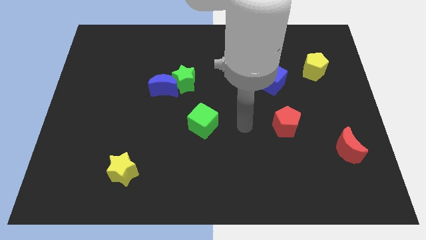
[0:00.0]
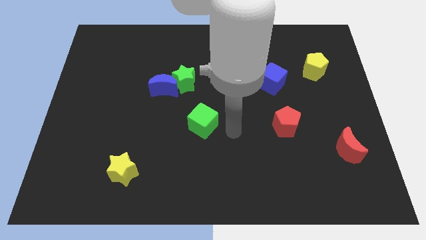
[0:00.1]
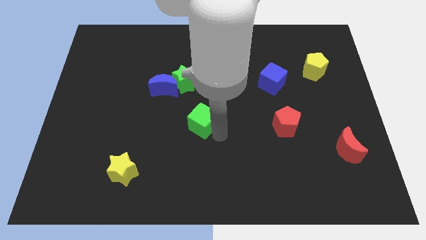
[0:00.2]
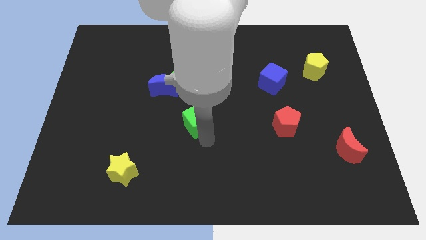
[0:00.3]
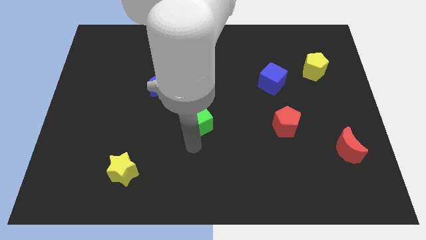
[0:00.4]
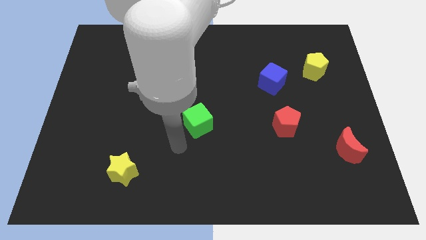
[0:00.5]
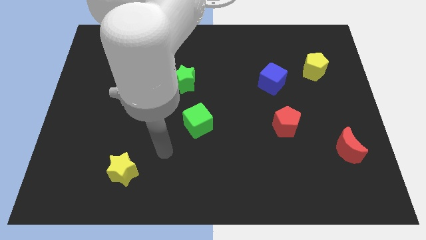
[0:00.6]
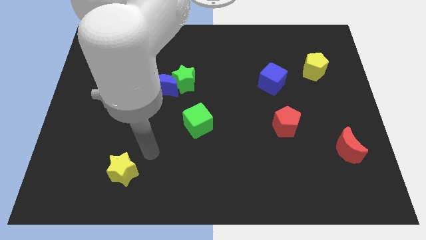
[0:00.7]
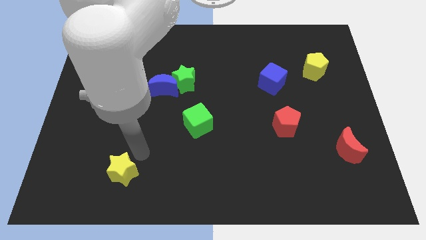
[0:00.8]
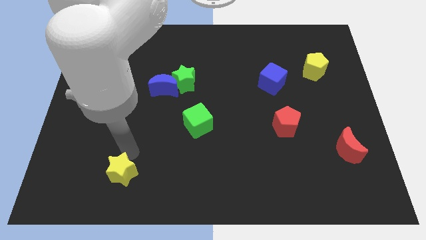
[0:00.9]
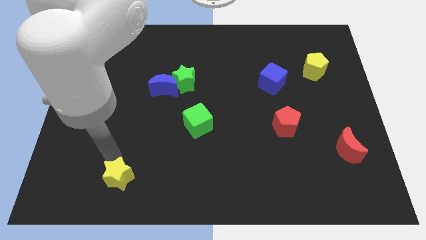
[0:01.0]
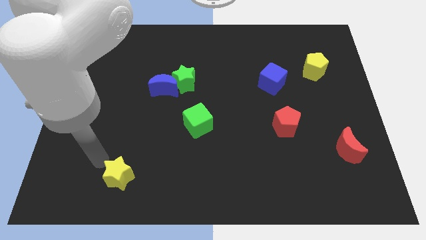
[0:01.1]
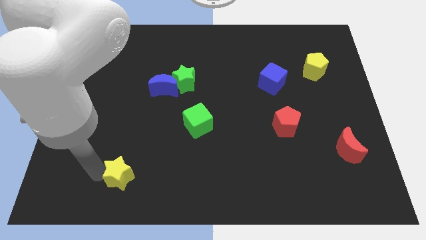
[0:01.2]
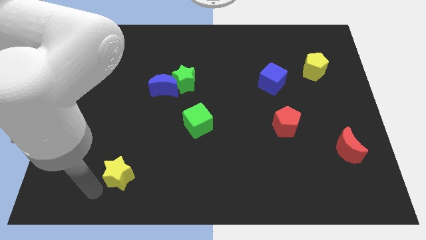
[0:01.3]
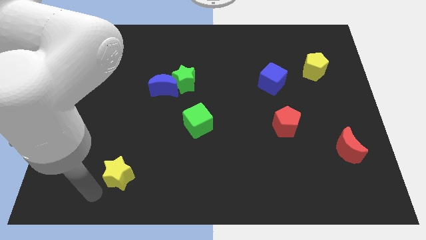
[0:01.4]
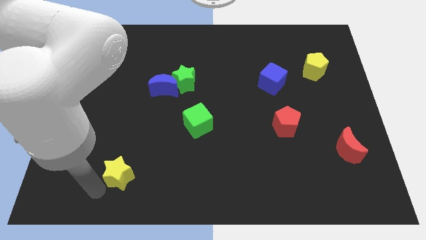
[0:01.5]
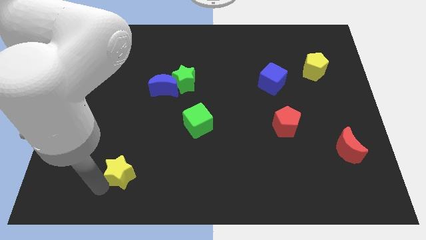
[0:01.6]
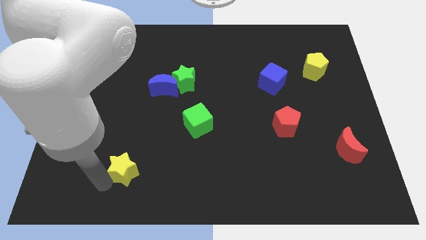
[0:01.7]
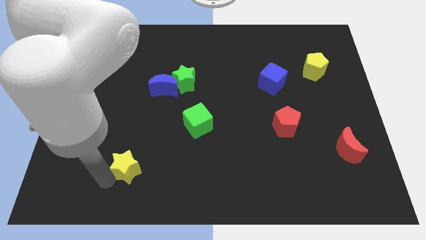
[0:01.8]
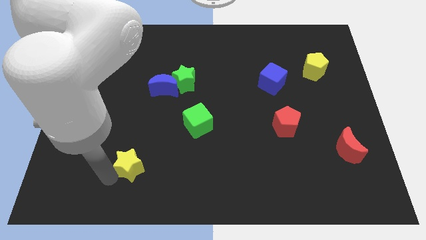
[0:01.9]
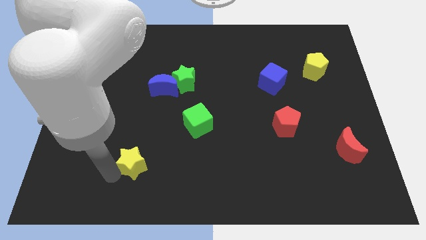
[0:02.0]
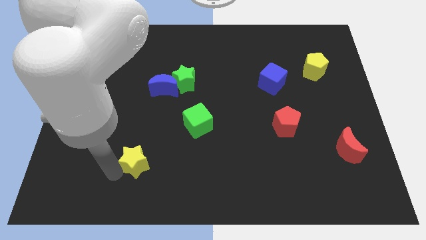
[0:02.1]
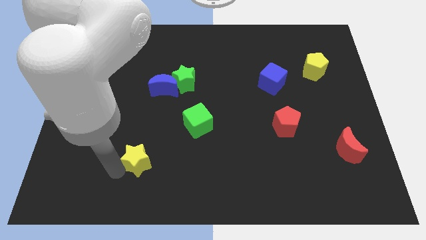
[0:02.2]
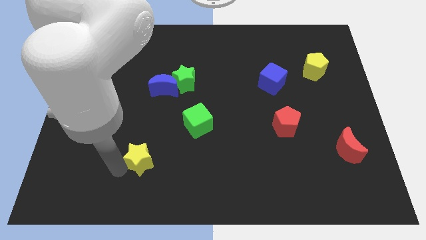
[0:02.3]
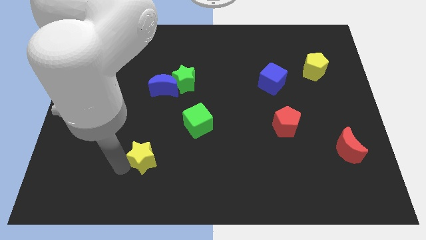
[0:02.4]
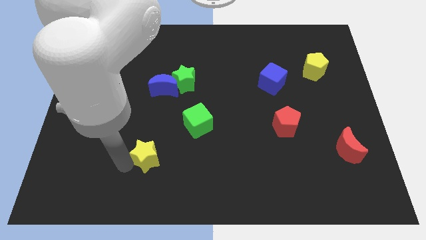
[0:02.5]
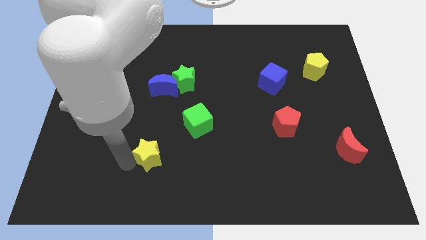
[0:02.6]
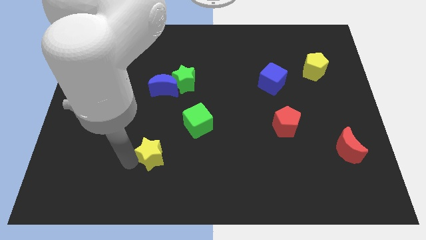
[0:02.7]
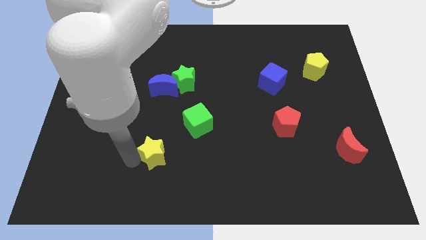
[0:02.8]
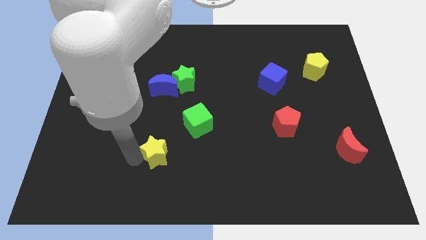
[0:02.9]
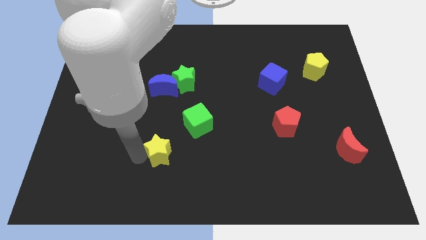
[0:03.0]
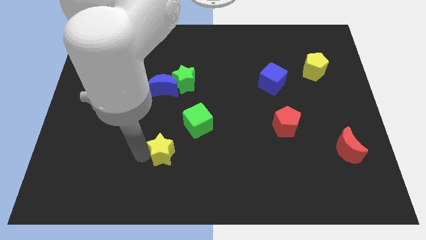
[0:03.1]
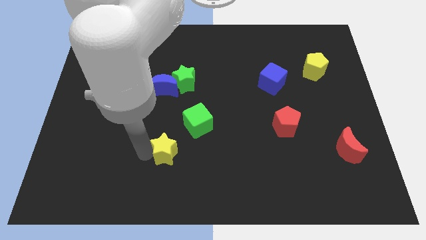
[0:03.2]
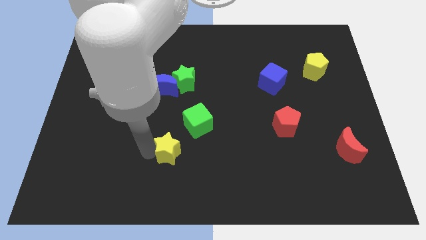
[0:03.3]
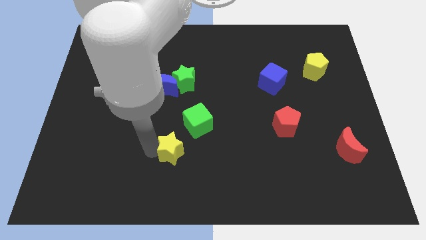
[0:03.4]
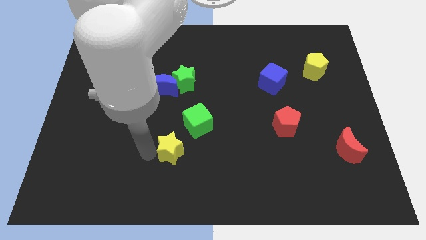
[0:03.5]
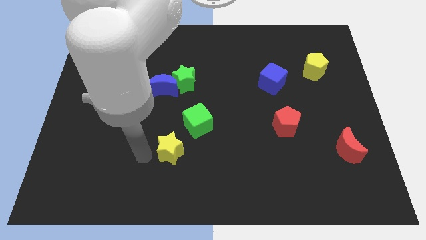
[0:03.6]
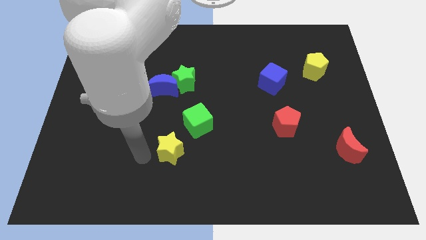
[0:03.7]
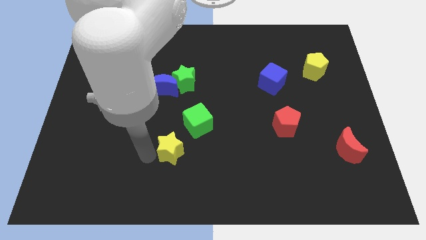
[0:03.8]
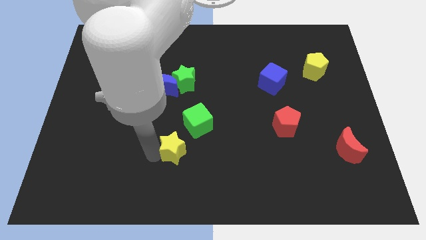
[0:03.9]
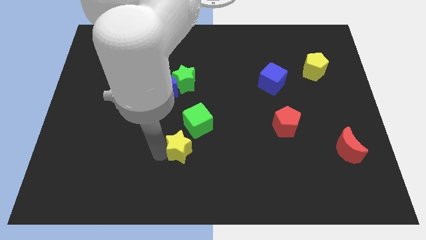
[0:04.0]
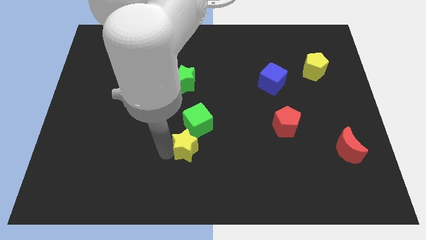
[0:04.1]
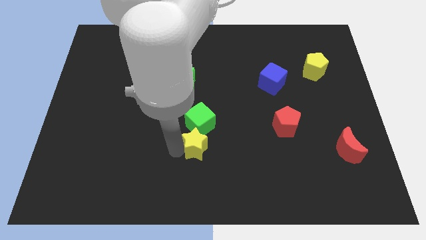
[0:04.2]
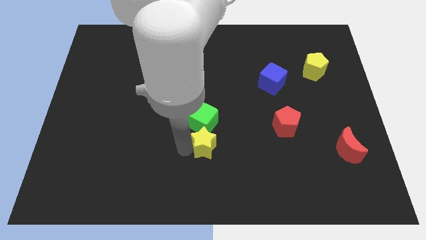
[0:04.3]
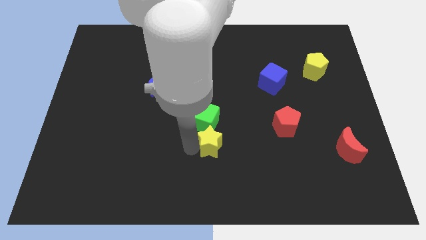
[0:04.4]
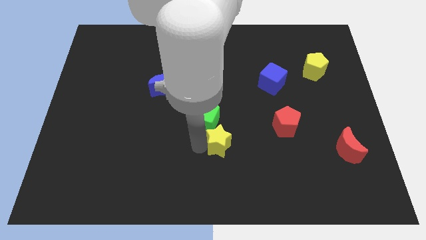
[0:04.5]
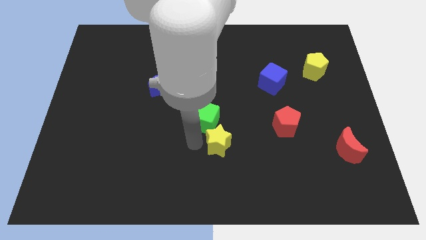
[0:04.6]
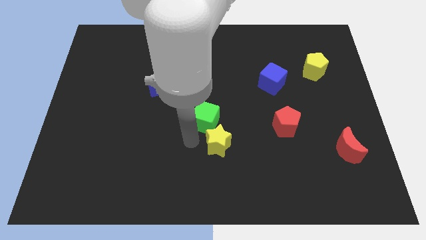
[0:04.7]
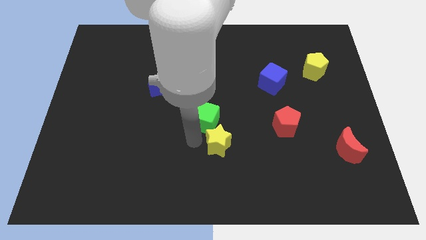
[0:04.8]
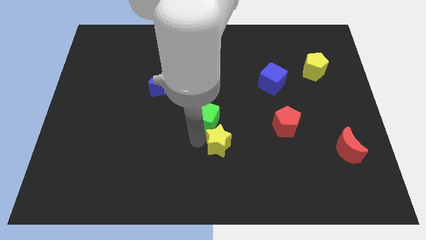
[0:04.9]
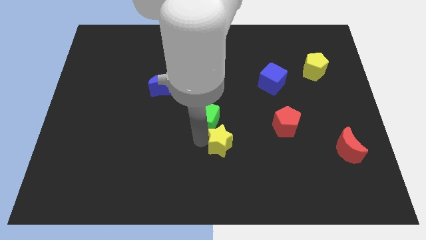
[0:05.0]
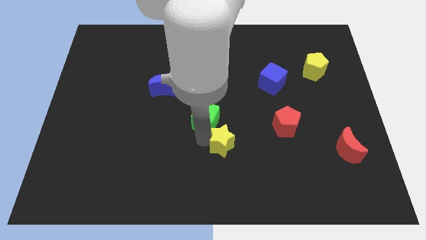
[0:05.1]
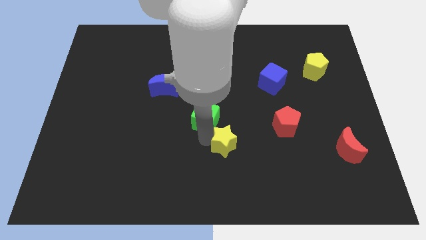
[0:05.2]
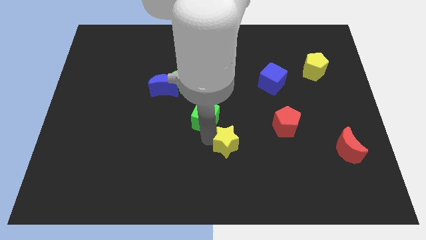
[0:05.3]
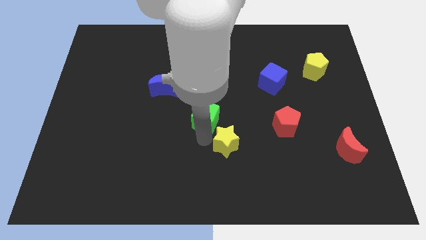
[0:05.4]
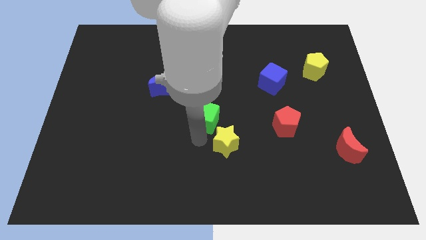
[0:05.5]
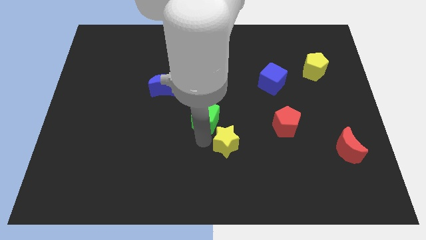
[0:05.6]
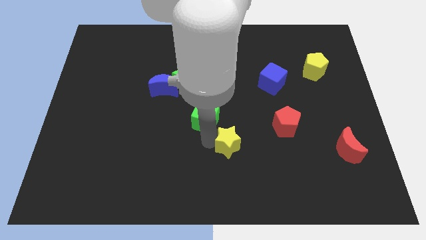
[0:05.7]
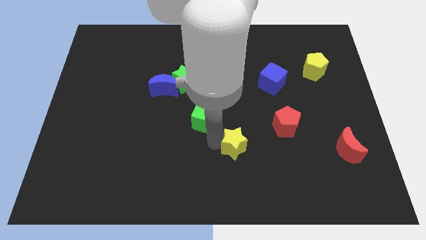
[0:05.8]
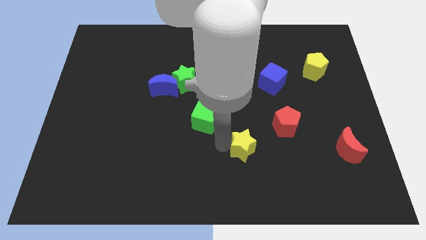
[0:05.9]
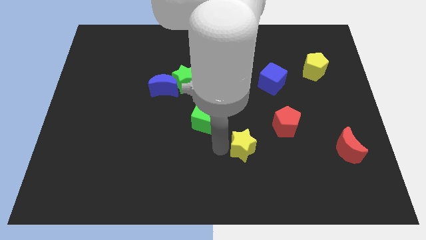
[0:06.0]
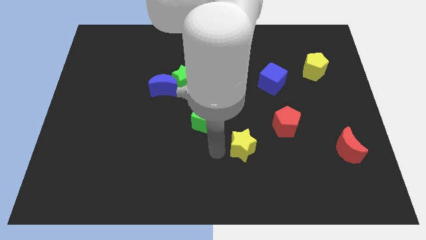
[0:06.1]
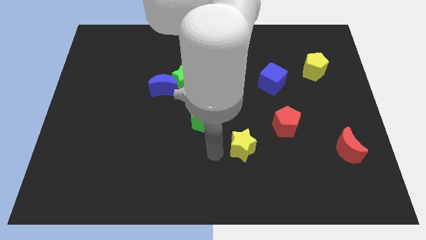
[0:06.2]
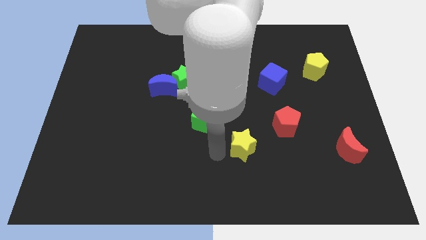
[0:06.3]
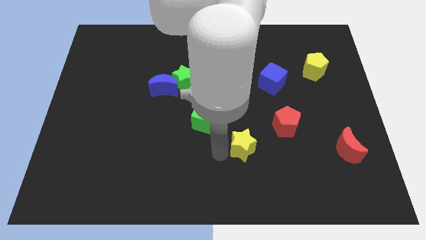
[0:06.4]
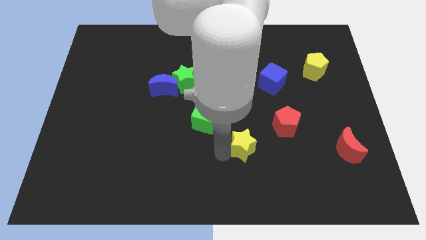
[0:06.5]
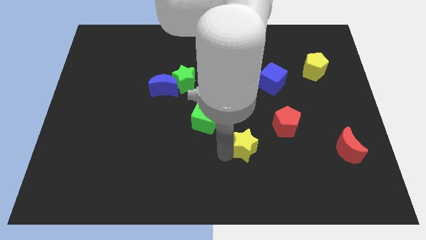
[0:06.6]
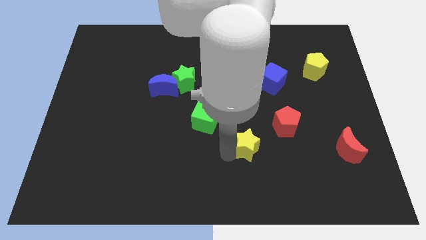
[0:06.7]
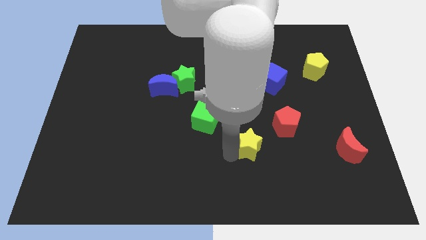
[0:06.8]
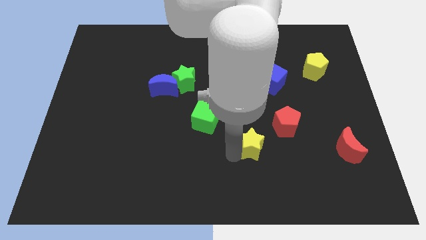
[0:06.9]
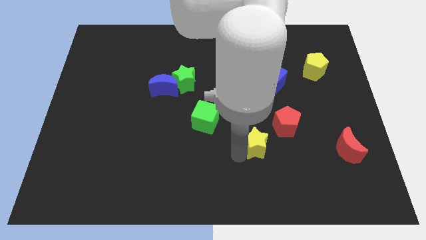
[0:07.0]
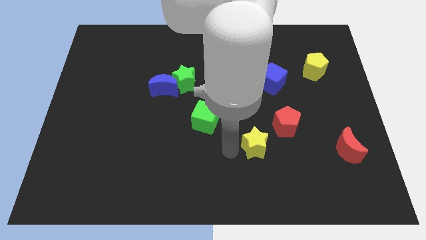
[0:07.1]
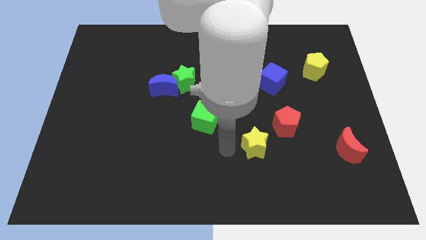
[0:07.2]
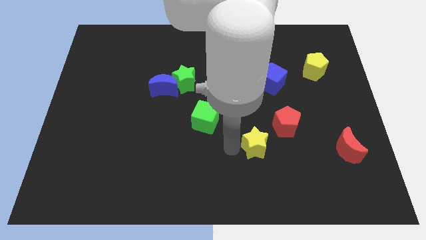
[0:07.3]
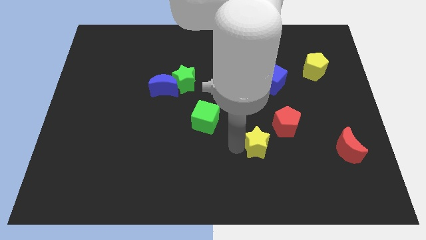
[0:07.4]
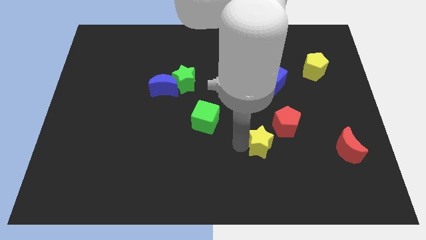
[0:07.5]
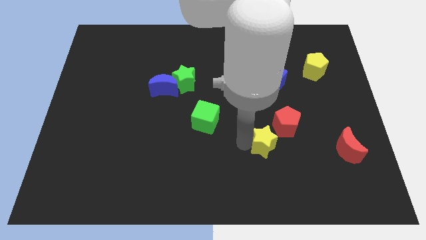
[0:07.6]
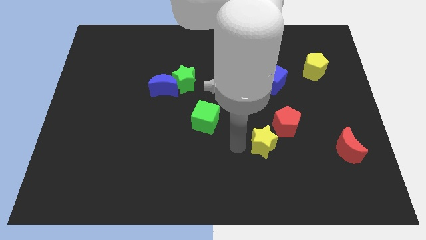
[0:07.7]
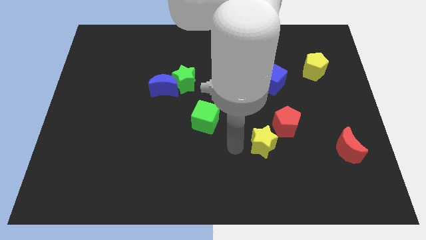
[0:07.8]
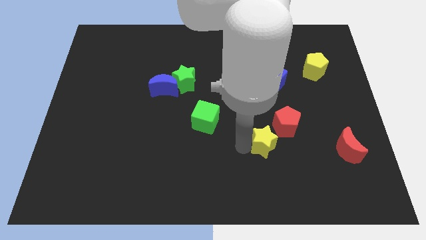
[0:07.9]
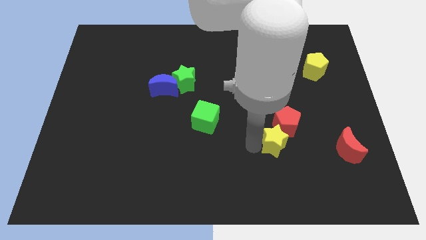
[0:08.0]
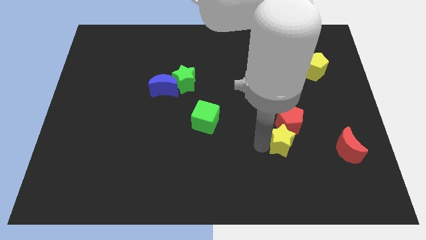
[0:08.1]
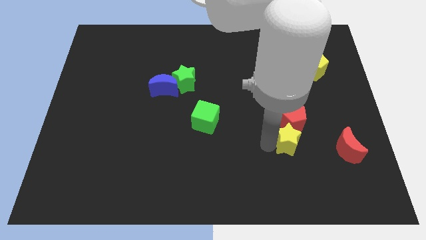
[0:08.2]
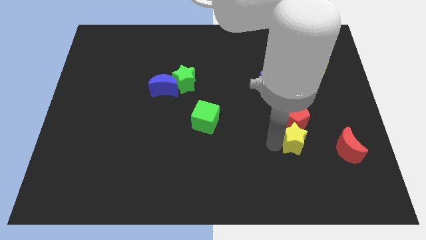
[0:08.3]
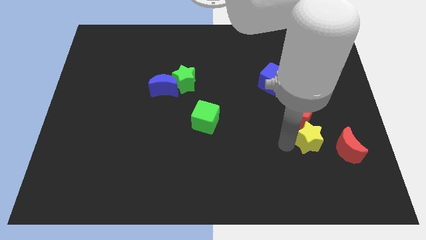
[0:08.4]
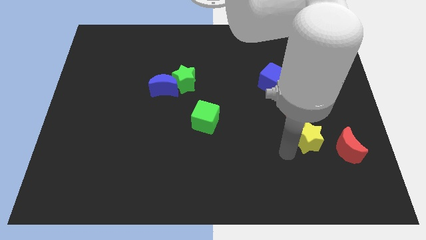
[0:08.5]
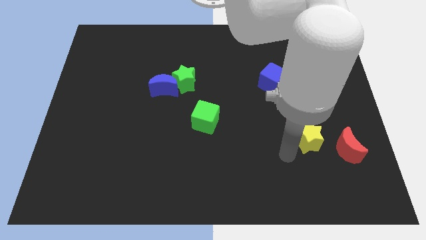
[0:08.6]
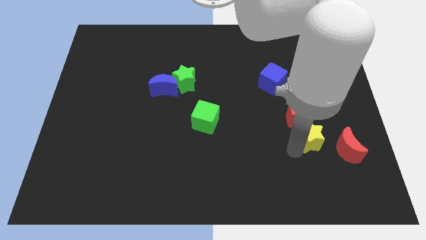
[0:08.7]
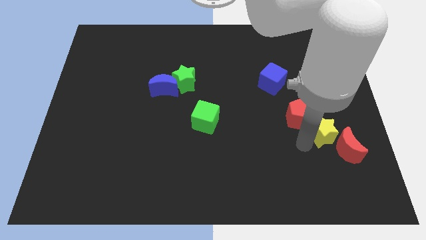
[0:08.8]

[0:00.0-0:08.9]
slide the yellow star to the right of the red pentagon
